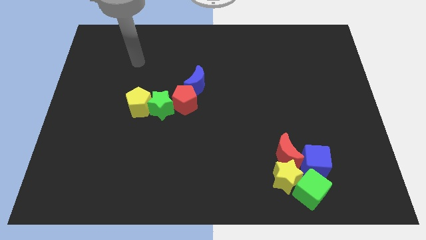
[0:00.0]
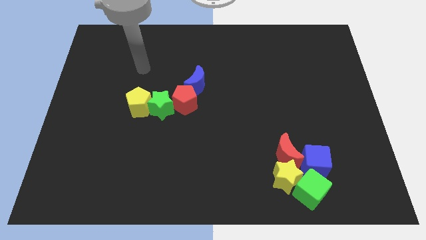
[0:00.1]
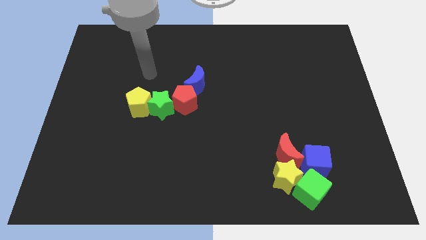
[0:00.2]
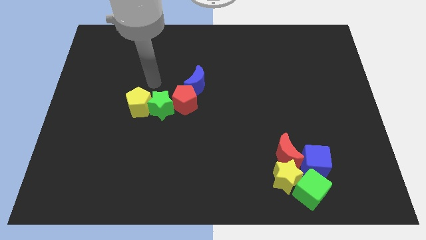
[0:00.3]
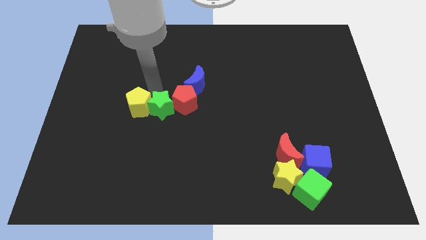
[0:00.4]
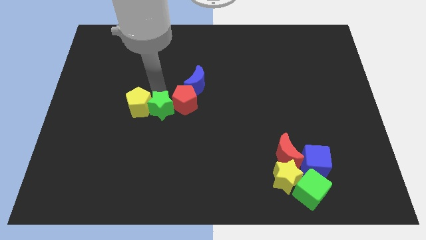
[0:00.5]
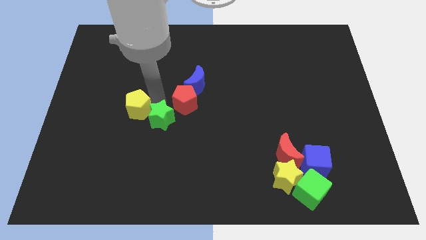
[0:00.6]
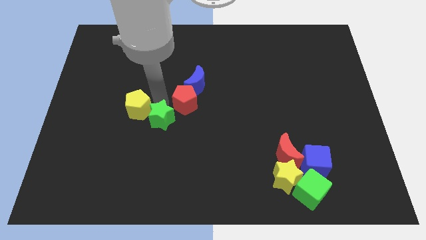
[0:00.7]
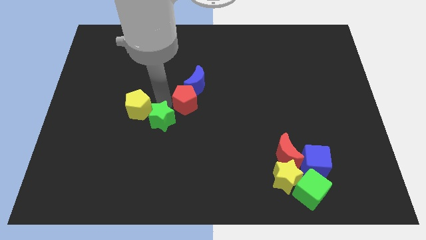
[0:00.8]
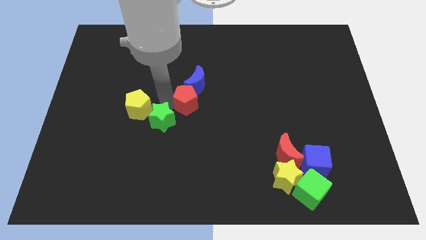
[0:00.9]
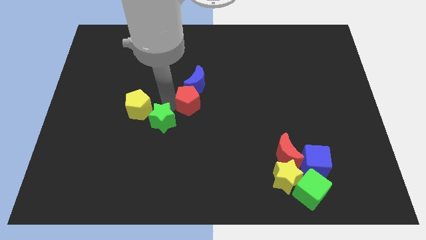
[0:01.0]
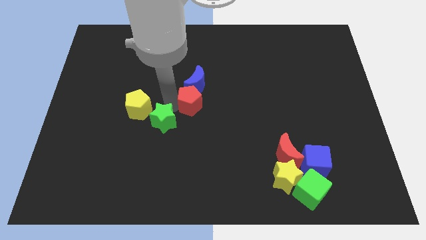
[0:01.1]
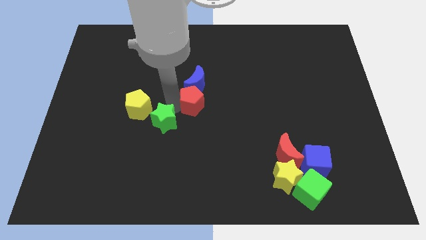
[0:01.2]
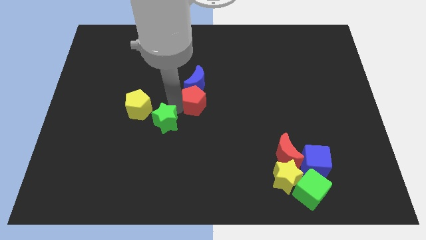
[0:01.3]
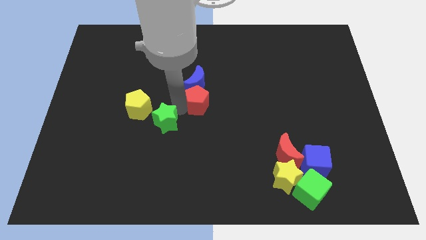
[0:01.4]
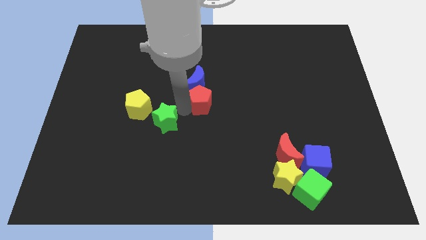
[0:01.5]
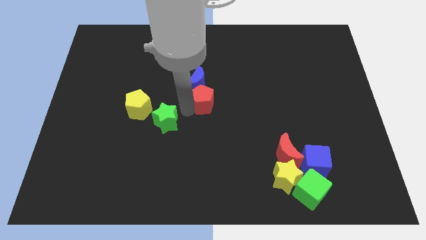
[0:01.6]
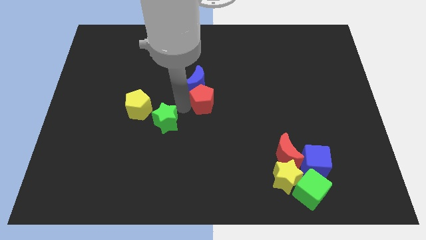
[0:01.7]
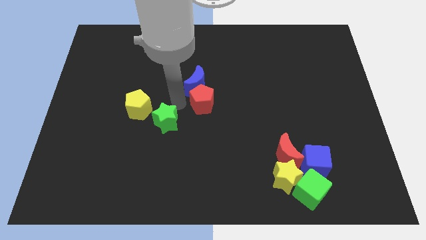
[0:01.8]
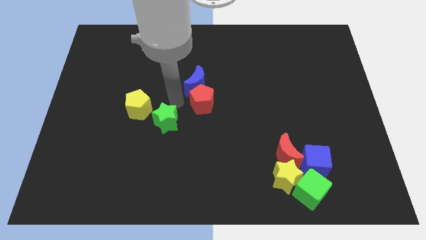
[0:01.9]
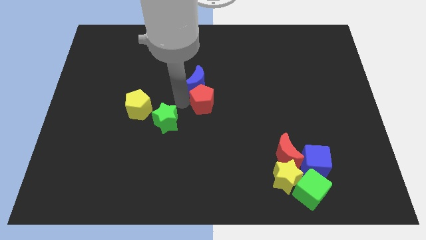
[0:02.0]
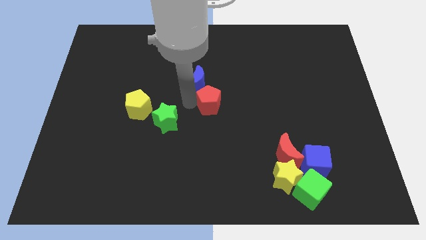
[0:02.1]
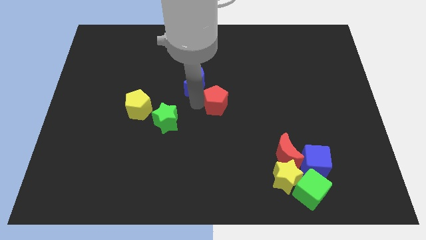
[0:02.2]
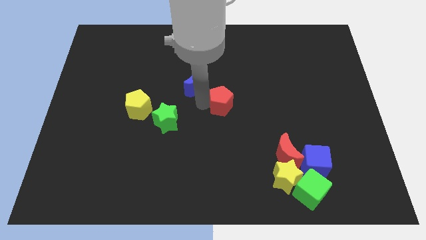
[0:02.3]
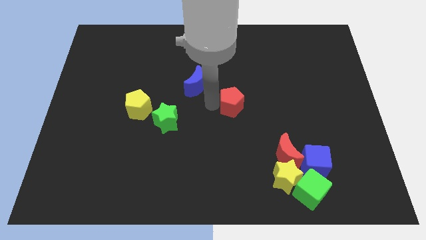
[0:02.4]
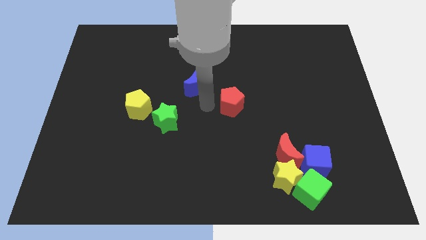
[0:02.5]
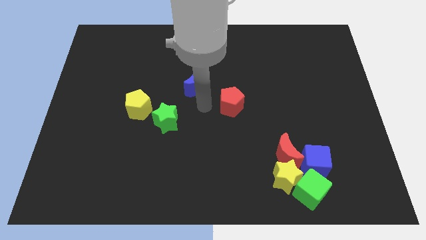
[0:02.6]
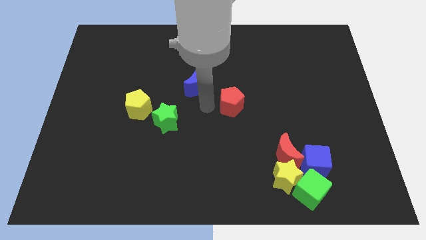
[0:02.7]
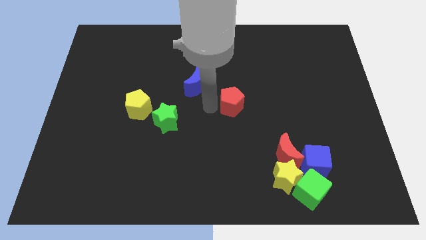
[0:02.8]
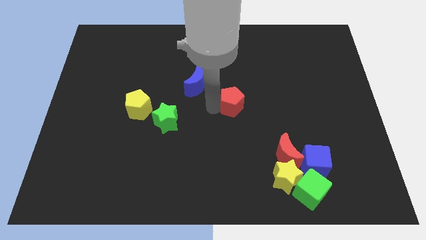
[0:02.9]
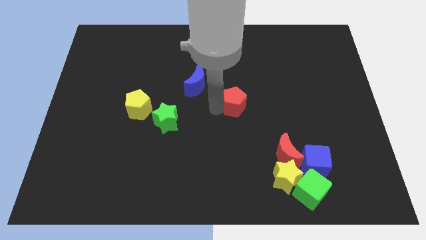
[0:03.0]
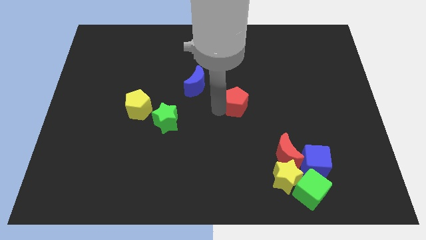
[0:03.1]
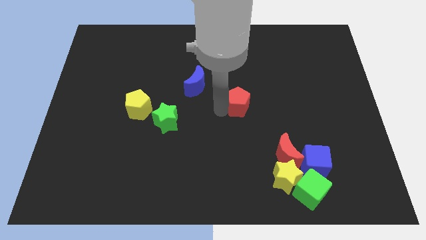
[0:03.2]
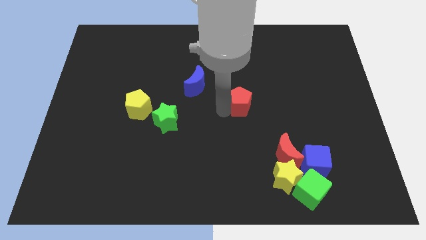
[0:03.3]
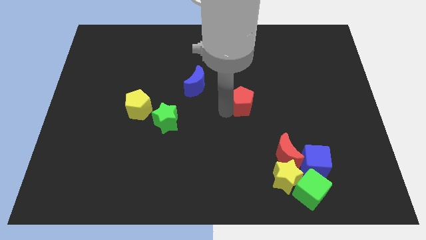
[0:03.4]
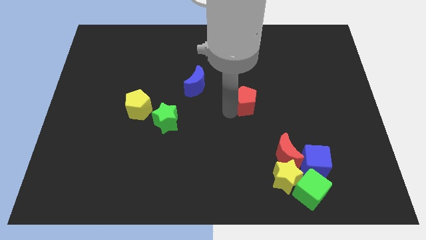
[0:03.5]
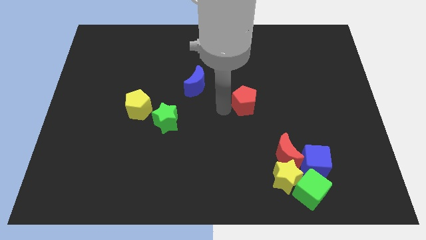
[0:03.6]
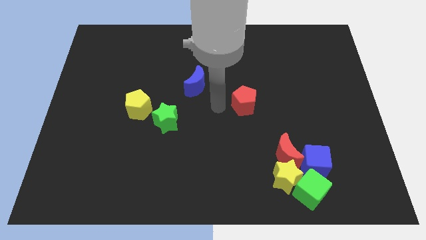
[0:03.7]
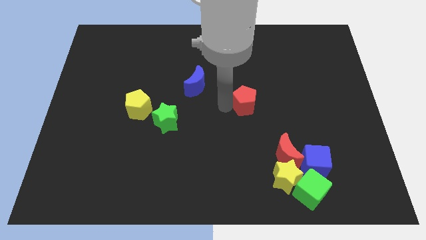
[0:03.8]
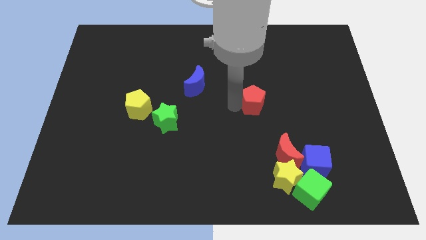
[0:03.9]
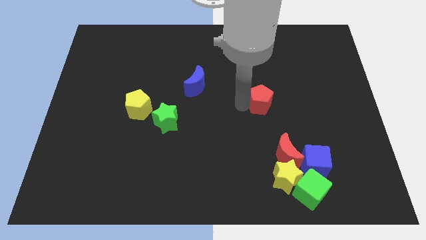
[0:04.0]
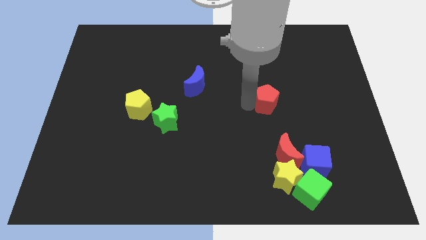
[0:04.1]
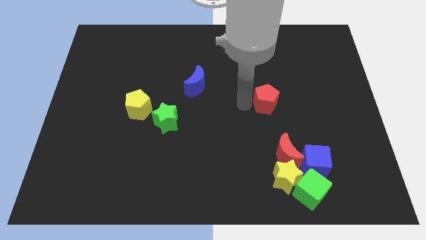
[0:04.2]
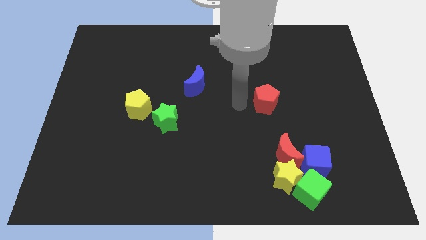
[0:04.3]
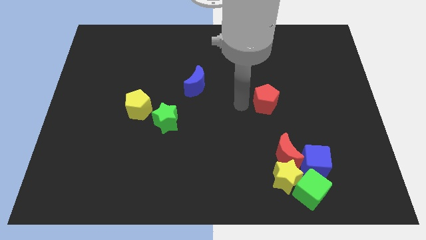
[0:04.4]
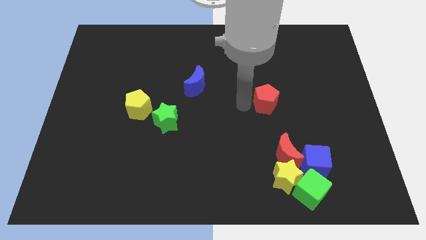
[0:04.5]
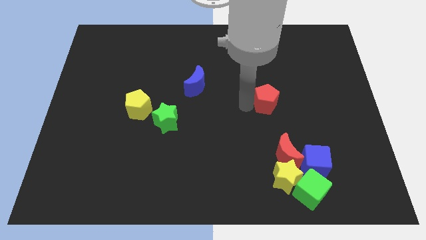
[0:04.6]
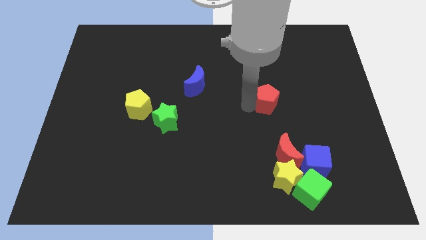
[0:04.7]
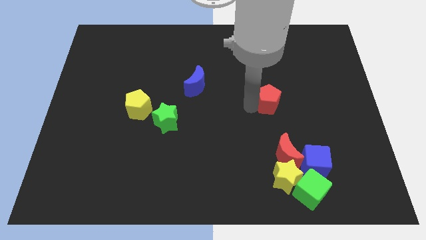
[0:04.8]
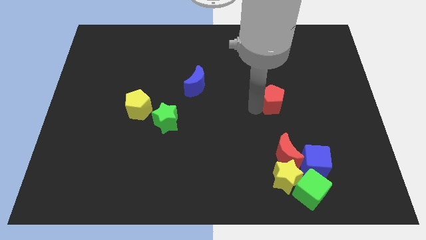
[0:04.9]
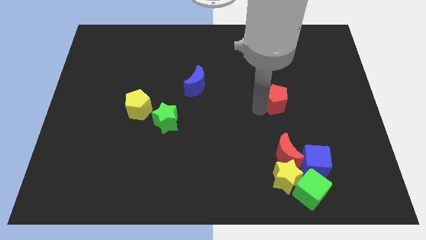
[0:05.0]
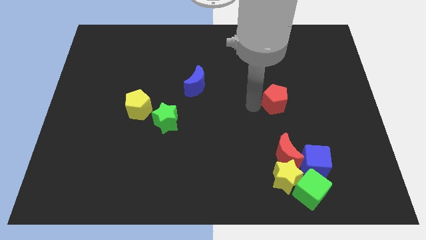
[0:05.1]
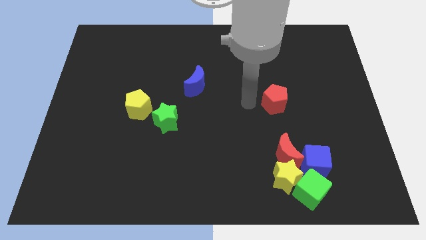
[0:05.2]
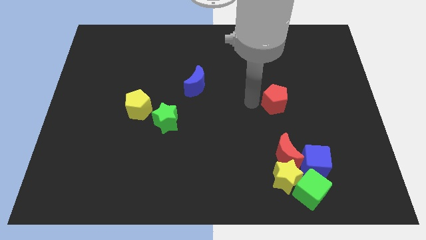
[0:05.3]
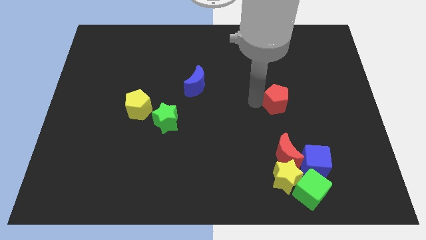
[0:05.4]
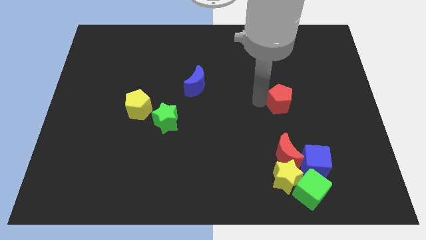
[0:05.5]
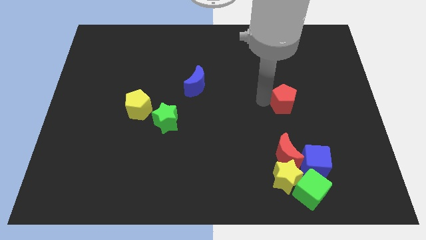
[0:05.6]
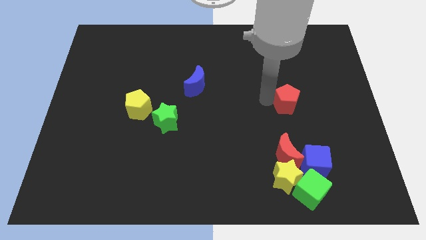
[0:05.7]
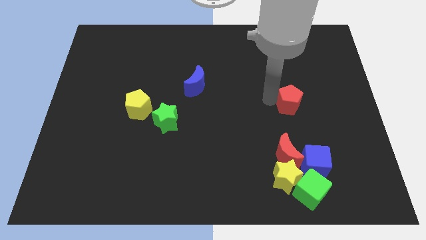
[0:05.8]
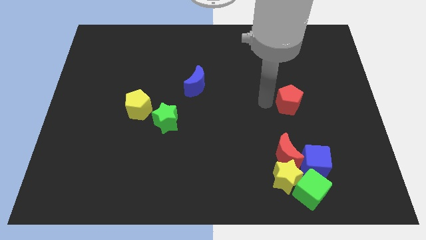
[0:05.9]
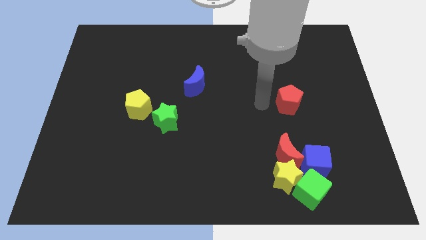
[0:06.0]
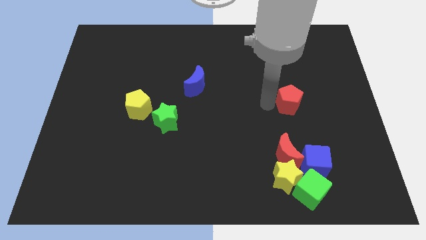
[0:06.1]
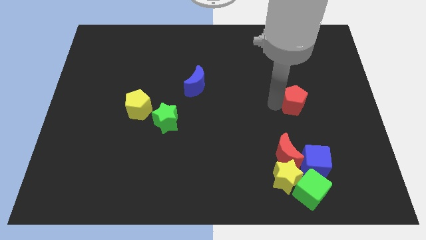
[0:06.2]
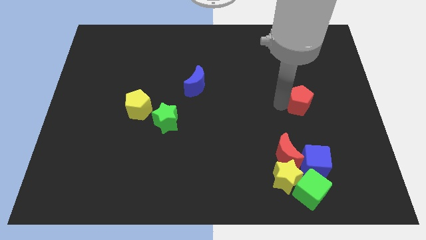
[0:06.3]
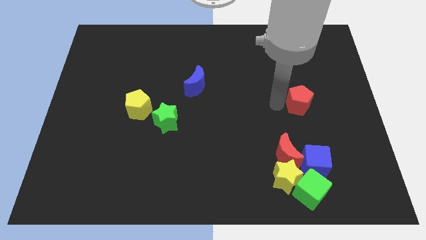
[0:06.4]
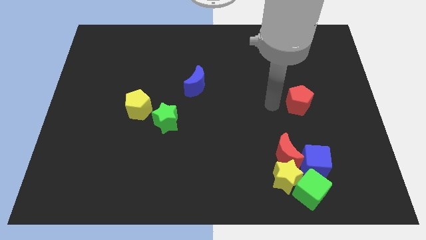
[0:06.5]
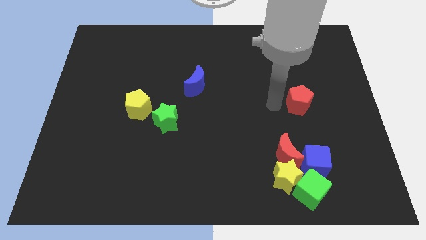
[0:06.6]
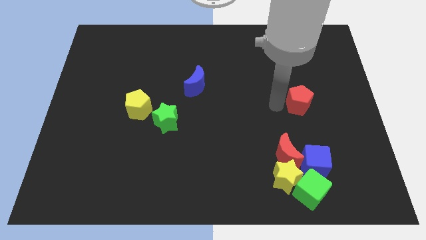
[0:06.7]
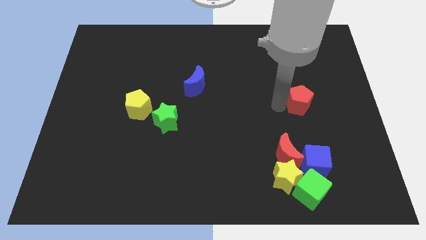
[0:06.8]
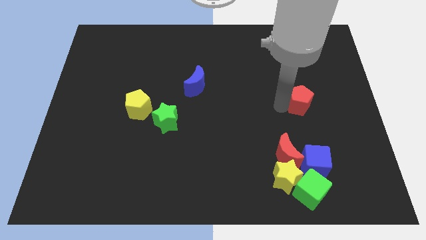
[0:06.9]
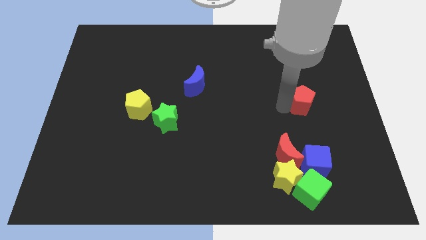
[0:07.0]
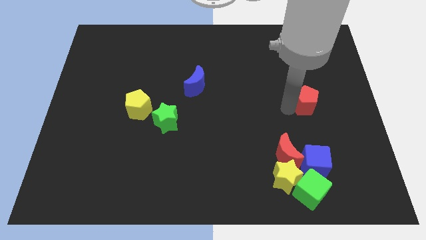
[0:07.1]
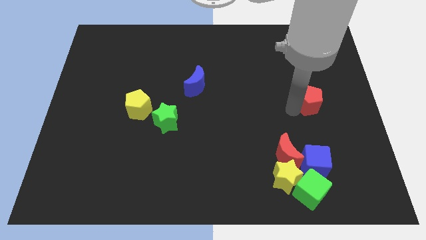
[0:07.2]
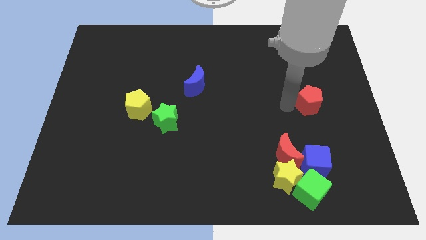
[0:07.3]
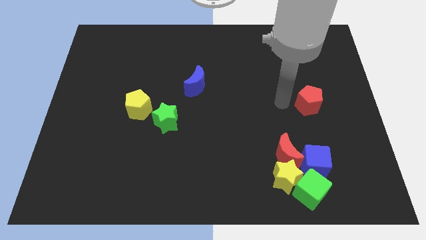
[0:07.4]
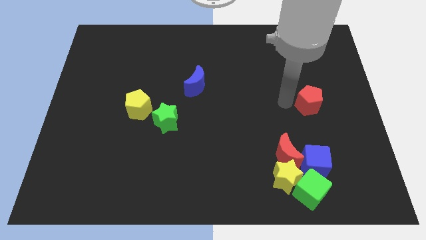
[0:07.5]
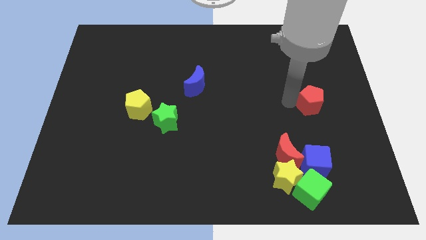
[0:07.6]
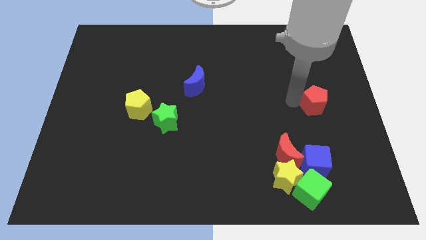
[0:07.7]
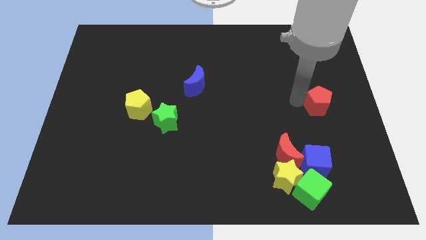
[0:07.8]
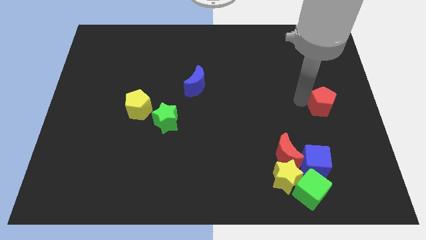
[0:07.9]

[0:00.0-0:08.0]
put the red pentagon to the right side
